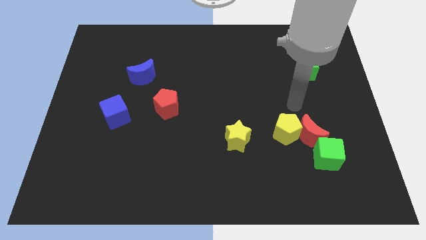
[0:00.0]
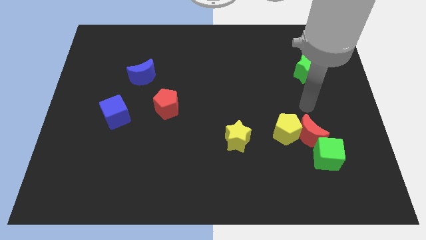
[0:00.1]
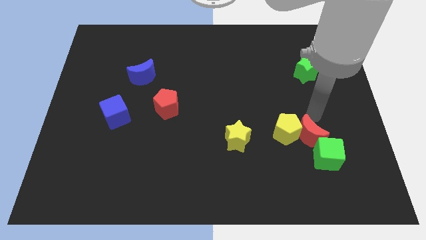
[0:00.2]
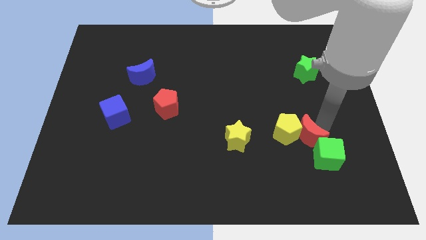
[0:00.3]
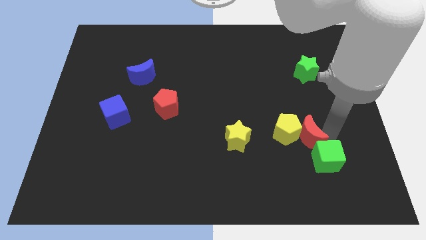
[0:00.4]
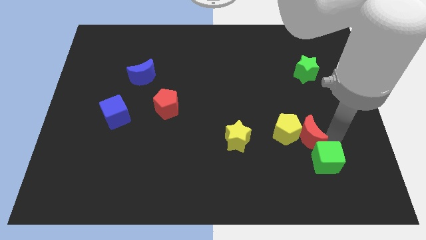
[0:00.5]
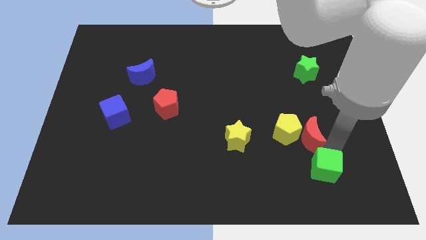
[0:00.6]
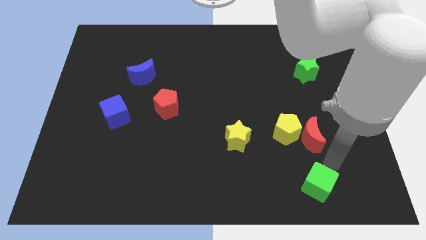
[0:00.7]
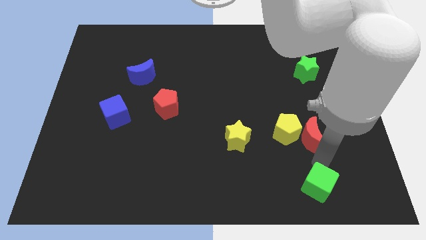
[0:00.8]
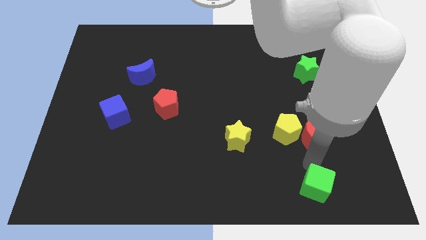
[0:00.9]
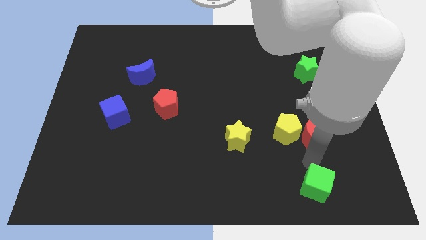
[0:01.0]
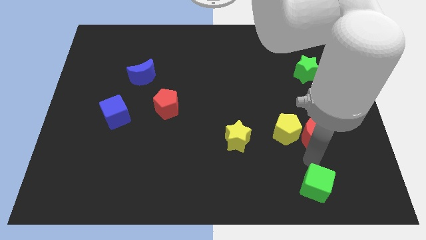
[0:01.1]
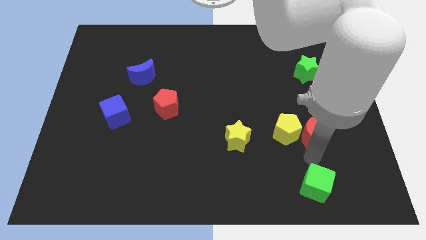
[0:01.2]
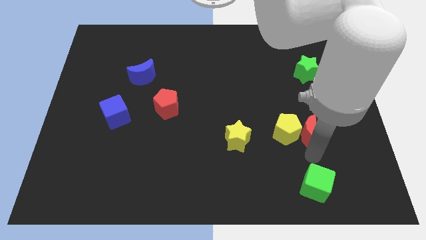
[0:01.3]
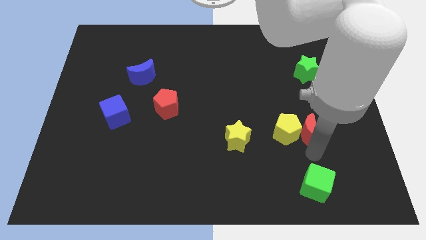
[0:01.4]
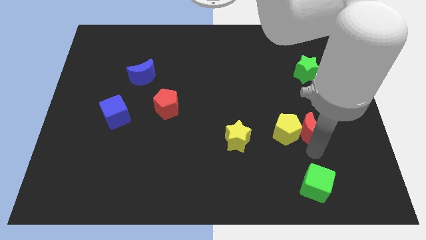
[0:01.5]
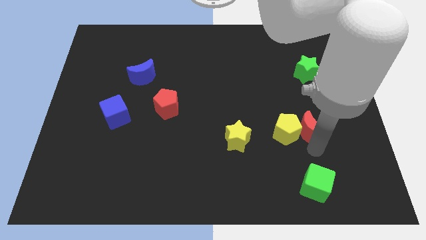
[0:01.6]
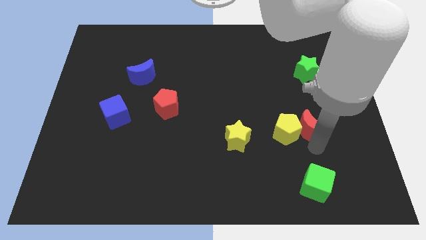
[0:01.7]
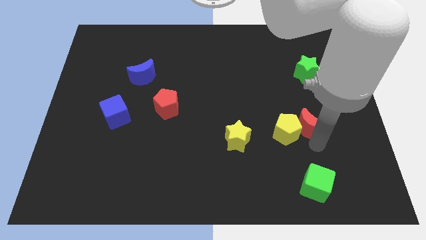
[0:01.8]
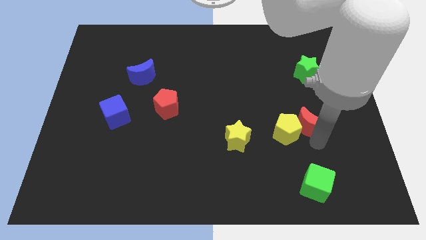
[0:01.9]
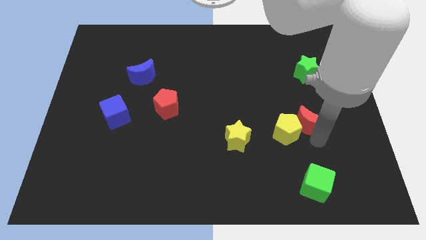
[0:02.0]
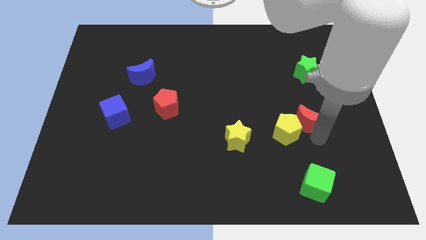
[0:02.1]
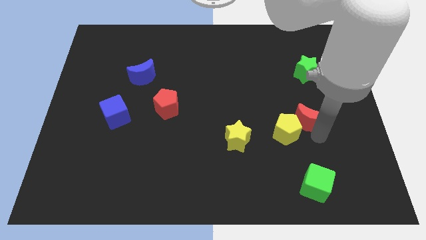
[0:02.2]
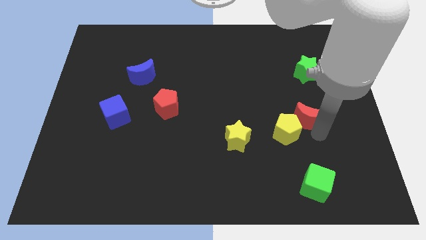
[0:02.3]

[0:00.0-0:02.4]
separate the red moon from the yellow pentagon and green cube

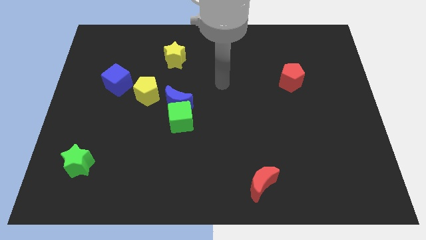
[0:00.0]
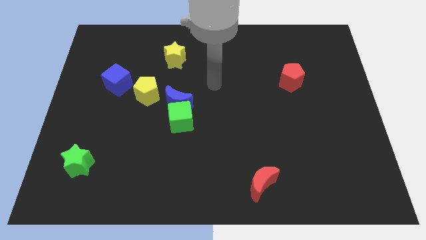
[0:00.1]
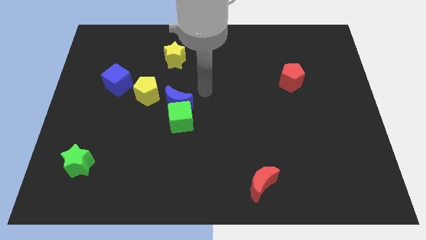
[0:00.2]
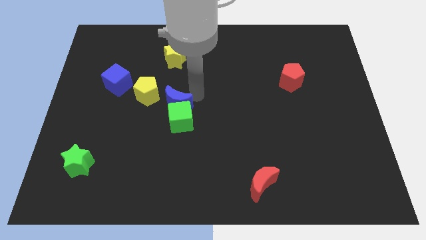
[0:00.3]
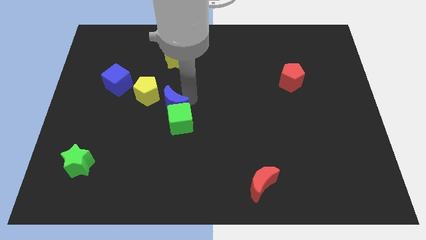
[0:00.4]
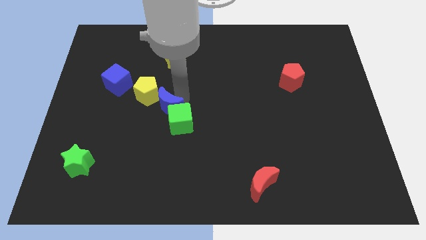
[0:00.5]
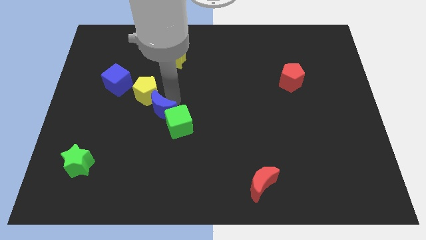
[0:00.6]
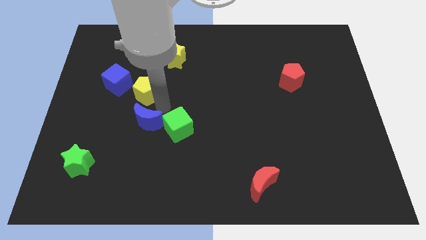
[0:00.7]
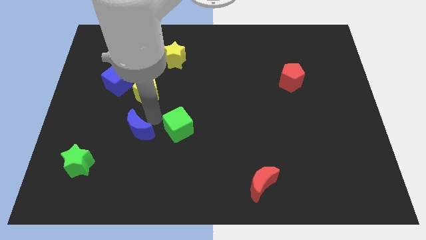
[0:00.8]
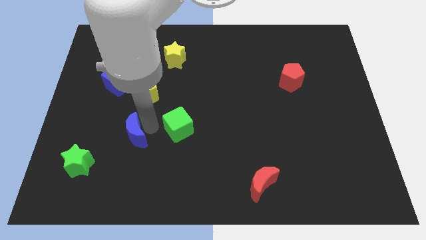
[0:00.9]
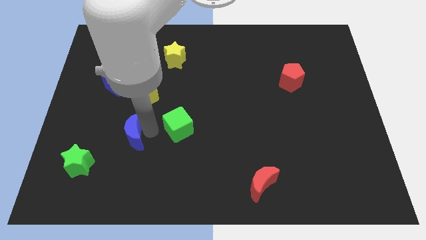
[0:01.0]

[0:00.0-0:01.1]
separate the green cube from the blue moon

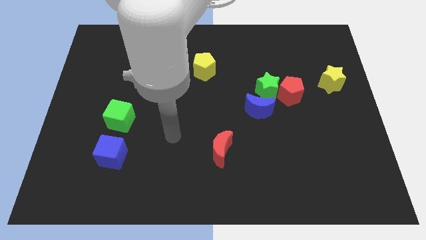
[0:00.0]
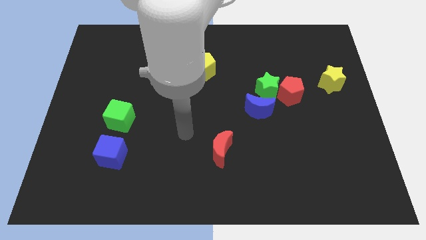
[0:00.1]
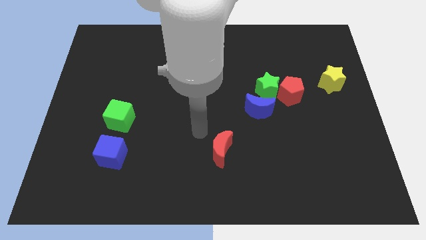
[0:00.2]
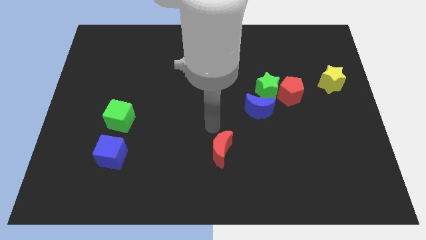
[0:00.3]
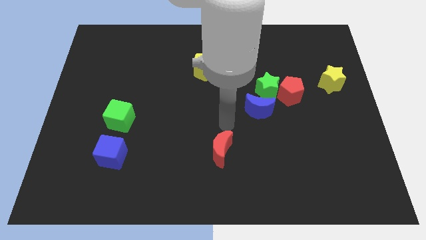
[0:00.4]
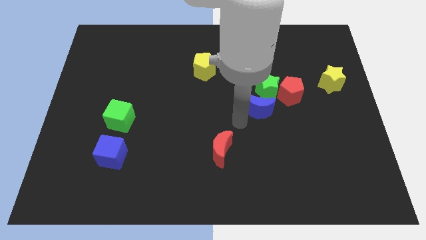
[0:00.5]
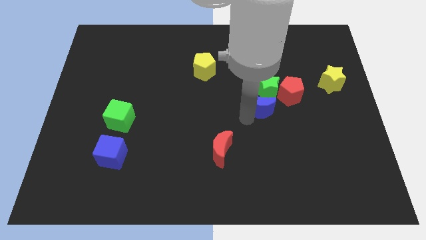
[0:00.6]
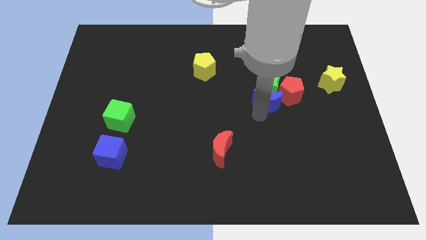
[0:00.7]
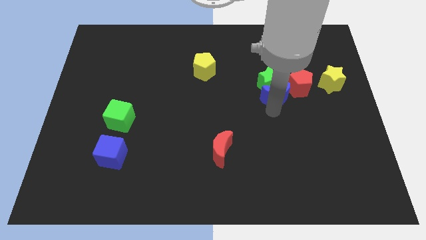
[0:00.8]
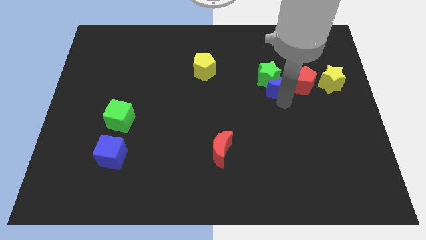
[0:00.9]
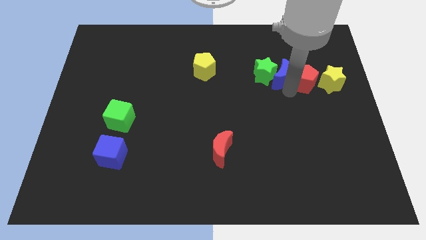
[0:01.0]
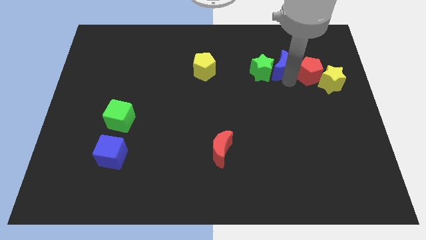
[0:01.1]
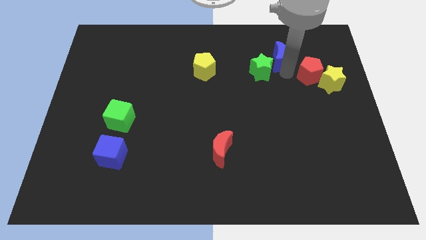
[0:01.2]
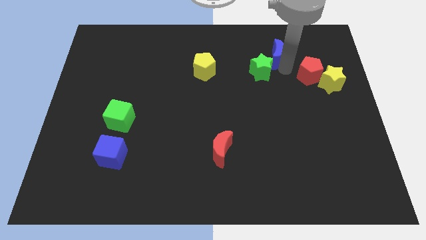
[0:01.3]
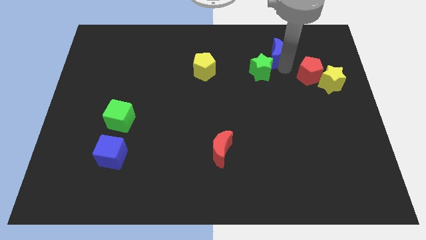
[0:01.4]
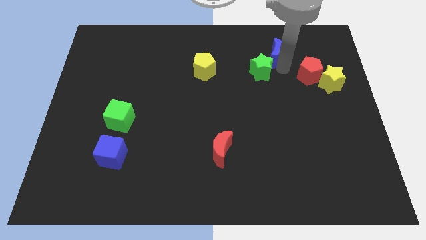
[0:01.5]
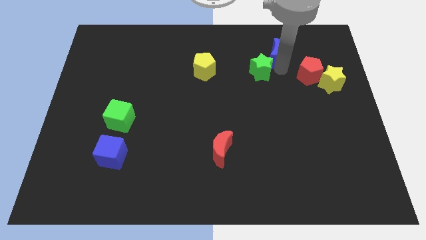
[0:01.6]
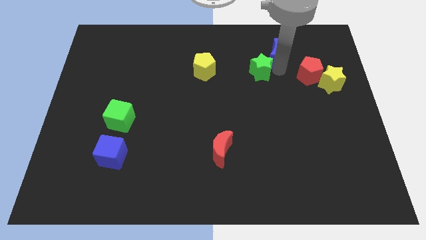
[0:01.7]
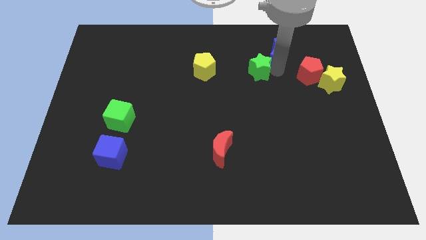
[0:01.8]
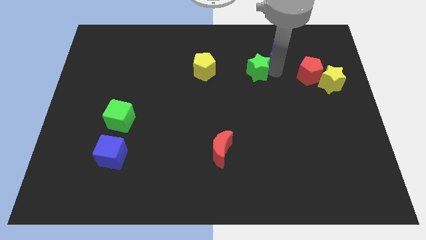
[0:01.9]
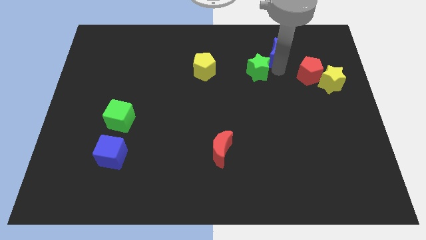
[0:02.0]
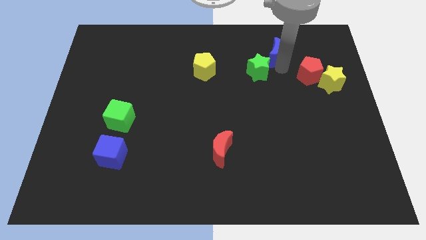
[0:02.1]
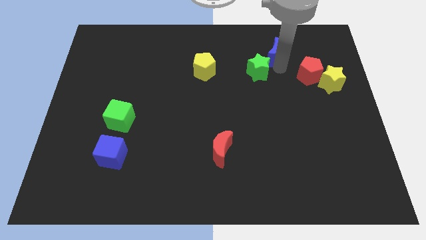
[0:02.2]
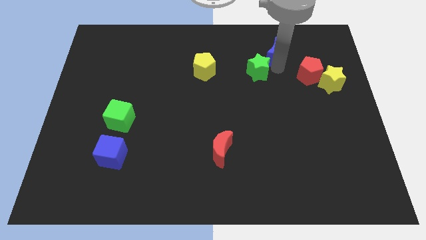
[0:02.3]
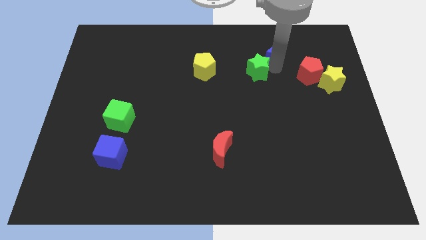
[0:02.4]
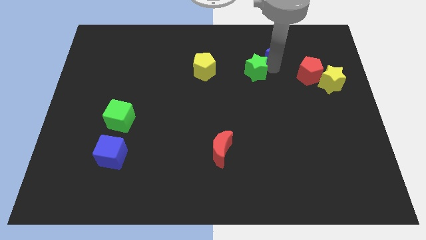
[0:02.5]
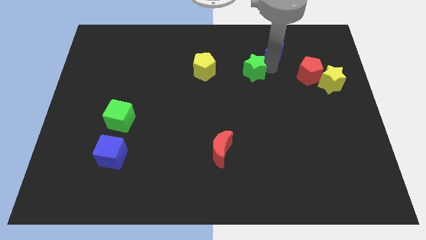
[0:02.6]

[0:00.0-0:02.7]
pull the green star apart from the red pentagon and blue moon

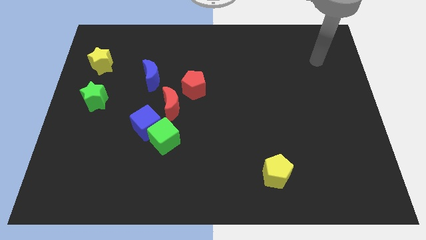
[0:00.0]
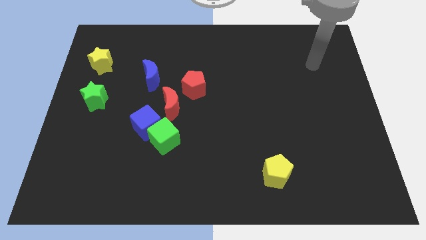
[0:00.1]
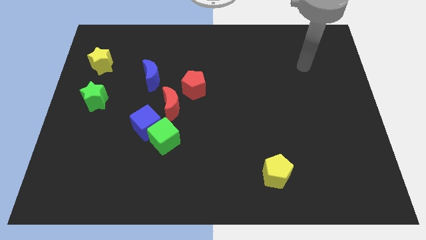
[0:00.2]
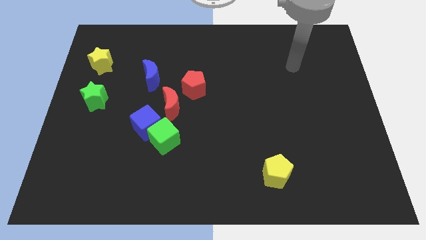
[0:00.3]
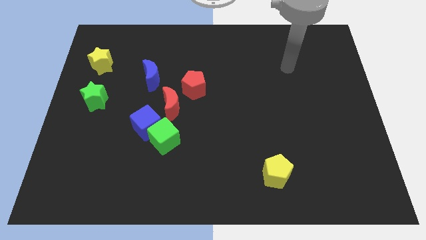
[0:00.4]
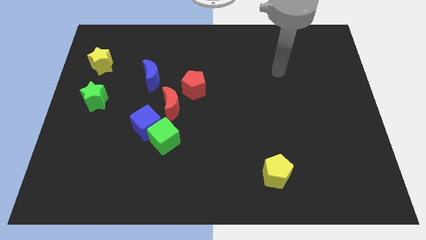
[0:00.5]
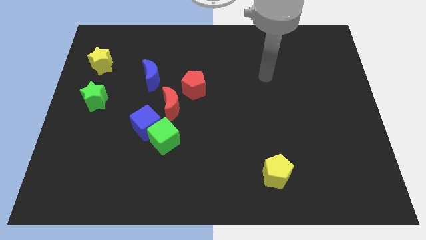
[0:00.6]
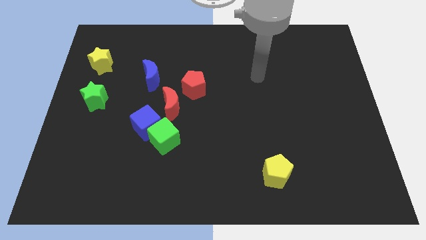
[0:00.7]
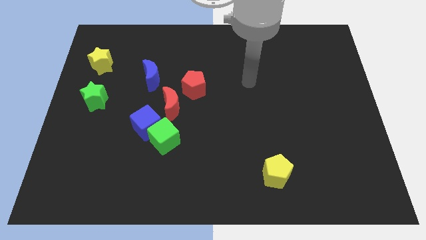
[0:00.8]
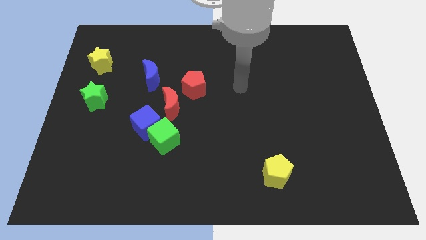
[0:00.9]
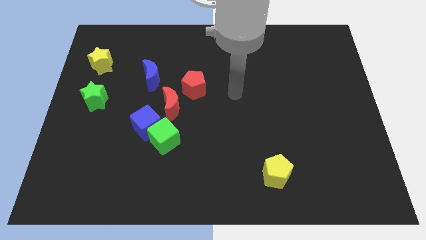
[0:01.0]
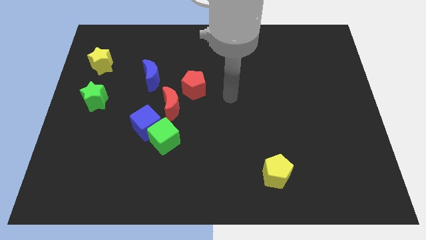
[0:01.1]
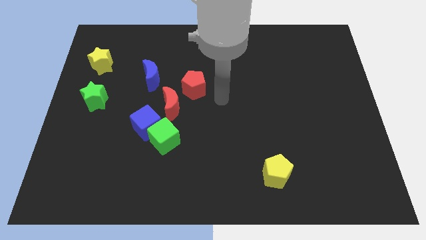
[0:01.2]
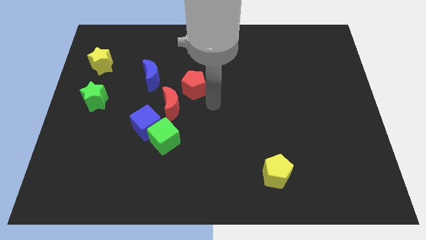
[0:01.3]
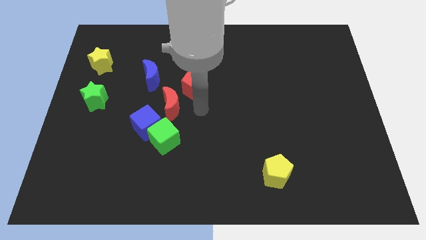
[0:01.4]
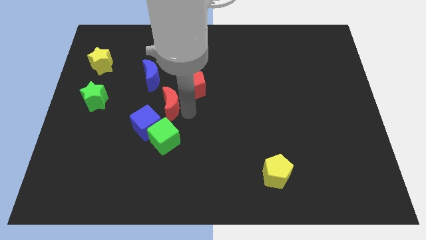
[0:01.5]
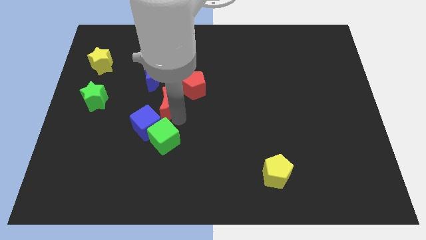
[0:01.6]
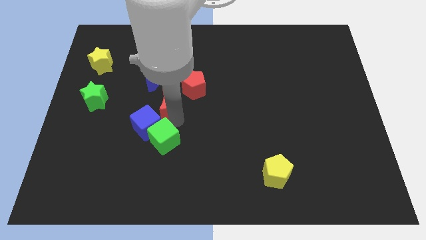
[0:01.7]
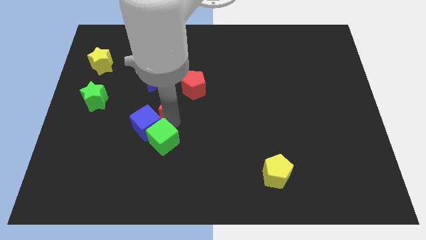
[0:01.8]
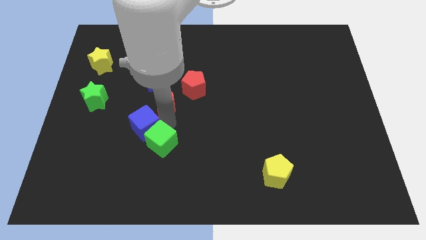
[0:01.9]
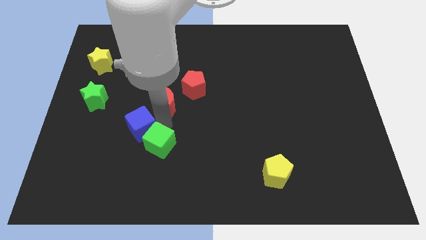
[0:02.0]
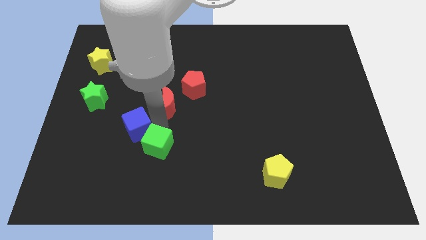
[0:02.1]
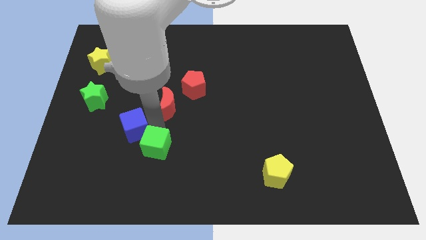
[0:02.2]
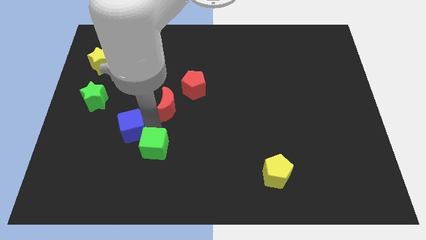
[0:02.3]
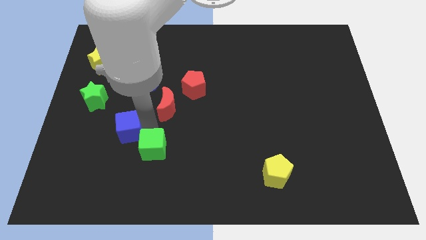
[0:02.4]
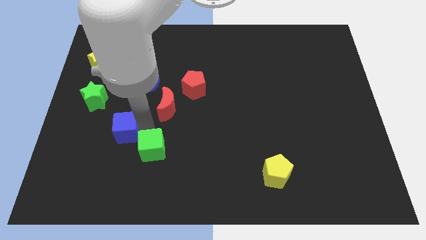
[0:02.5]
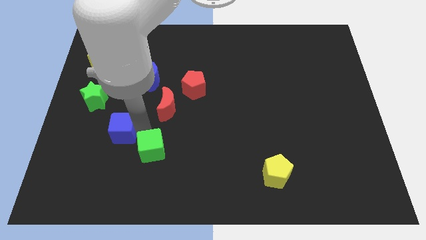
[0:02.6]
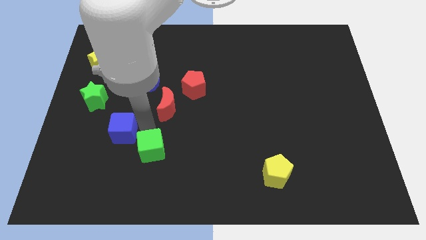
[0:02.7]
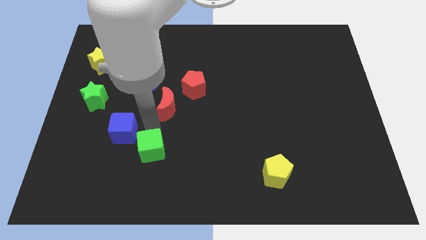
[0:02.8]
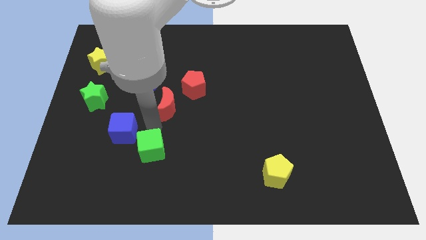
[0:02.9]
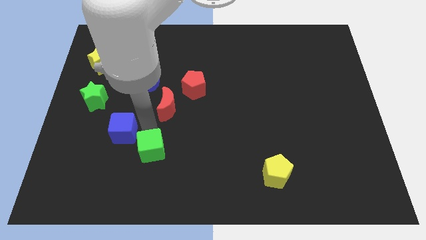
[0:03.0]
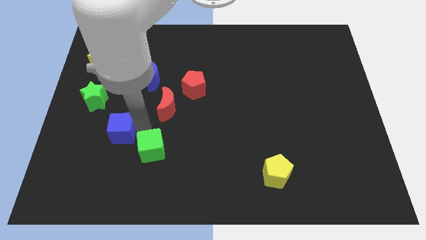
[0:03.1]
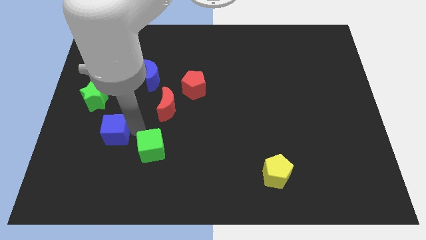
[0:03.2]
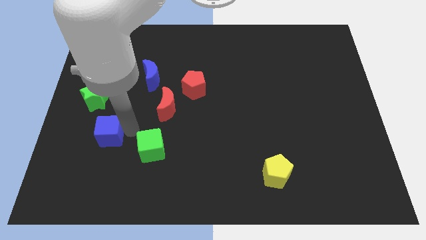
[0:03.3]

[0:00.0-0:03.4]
separate the blue cube from the green cube and red moon
